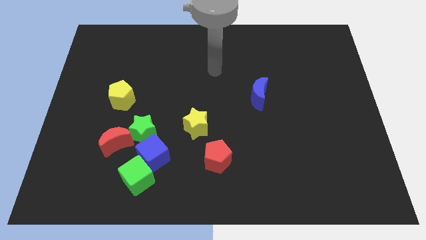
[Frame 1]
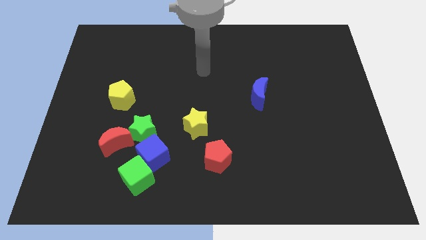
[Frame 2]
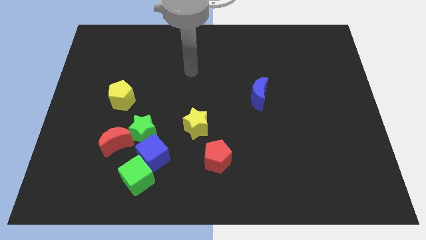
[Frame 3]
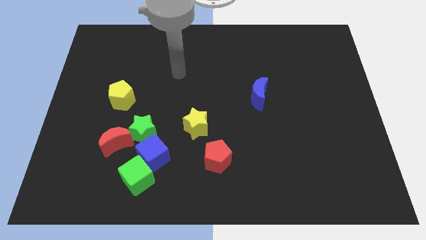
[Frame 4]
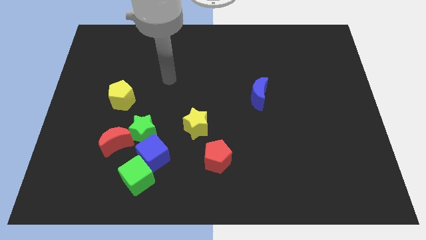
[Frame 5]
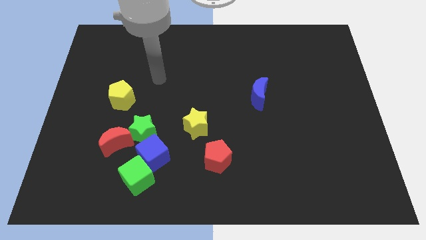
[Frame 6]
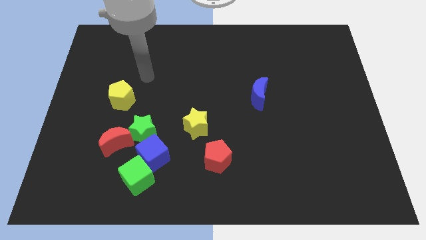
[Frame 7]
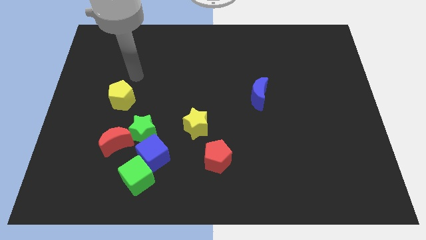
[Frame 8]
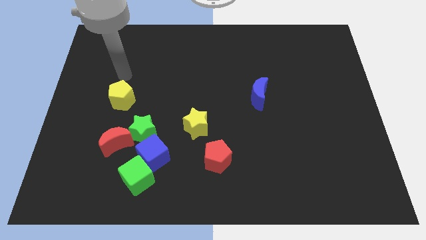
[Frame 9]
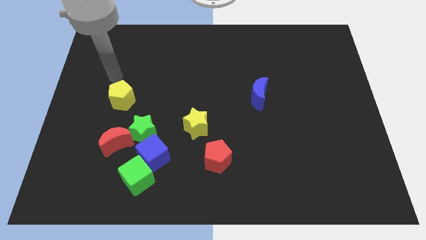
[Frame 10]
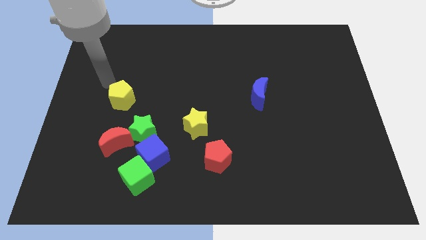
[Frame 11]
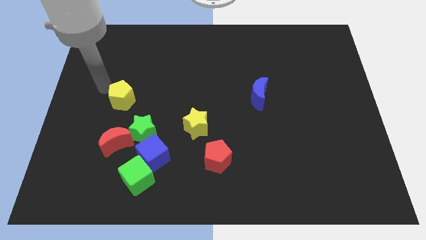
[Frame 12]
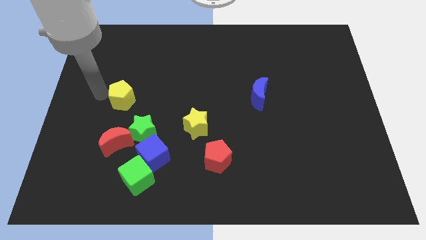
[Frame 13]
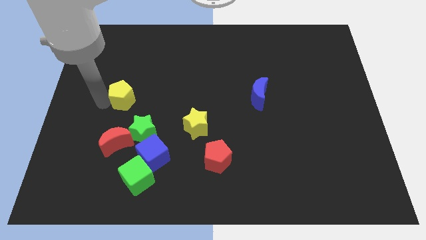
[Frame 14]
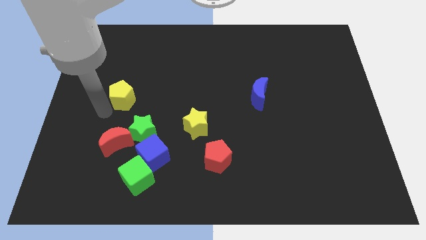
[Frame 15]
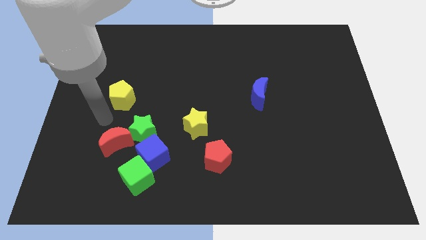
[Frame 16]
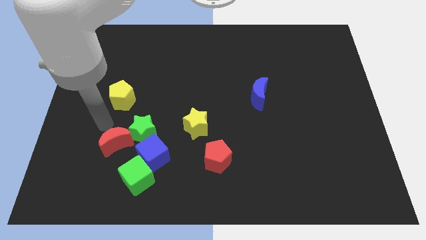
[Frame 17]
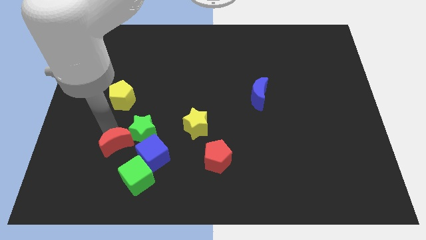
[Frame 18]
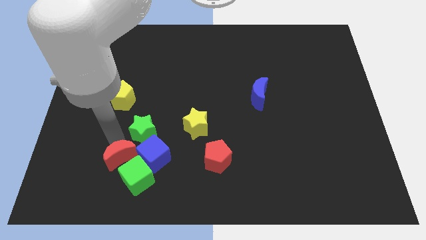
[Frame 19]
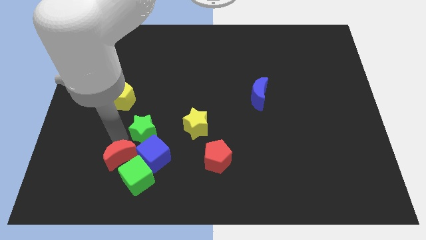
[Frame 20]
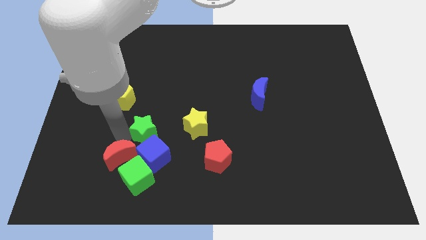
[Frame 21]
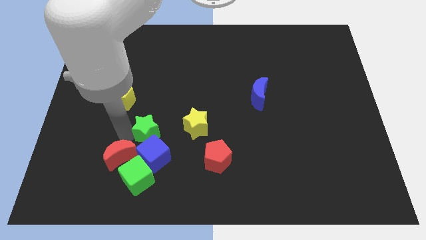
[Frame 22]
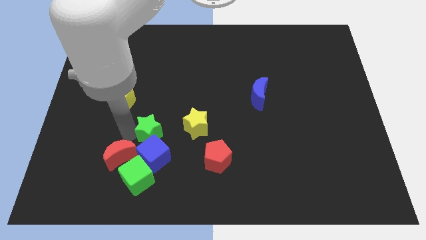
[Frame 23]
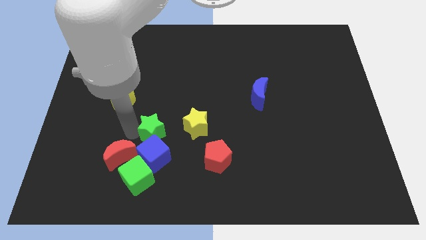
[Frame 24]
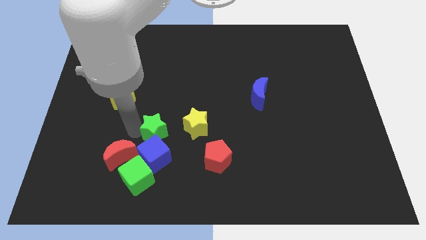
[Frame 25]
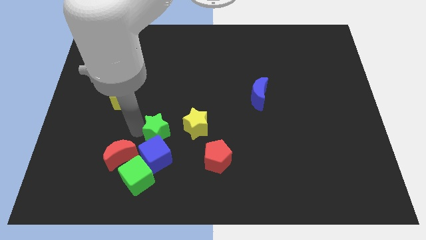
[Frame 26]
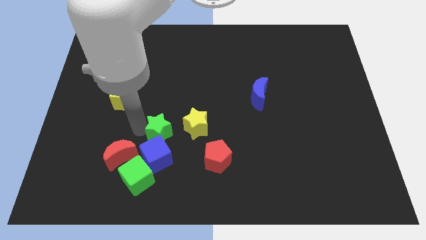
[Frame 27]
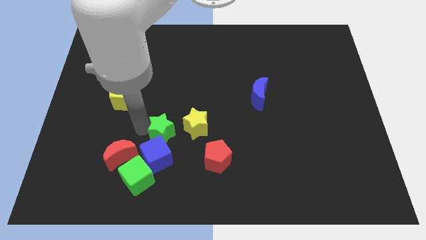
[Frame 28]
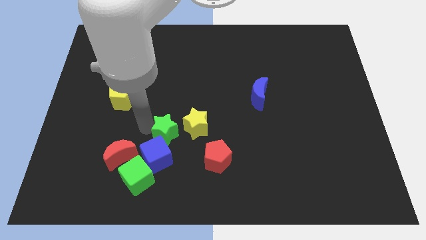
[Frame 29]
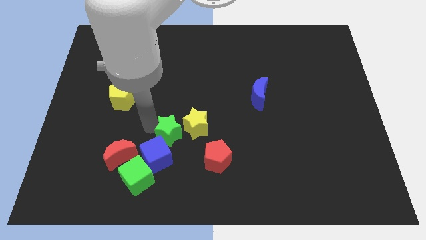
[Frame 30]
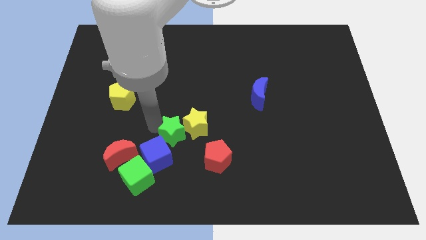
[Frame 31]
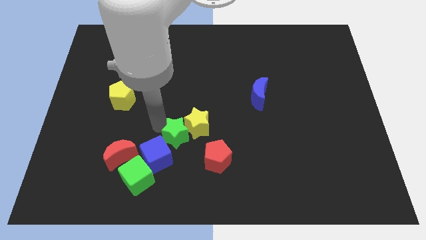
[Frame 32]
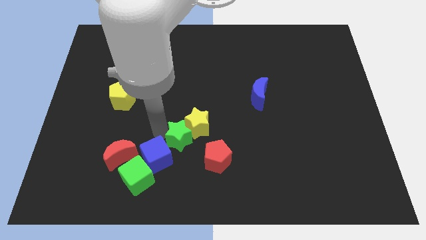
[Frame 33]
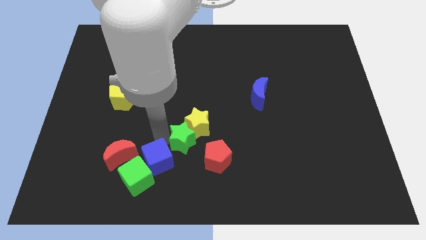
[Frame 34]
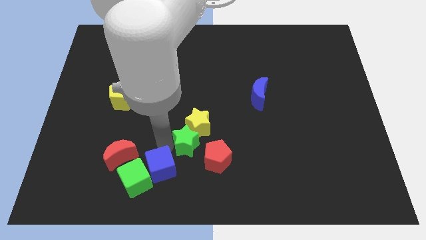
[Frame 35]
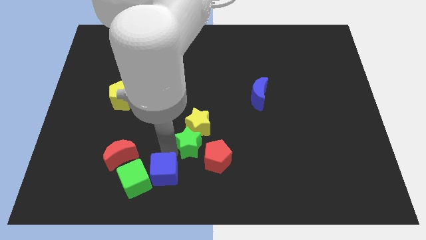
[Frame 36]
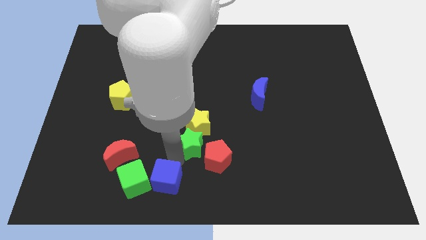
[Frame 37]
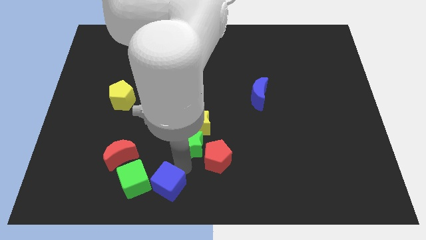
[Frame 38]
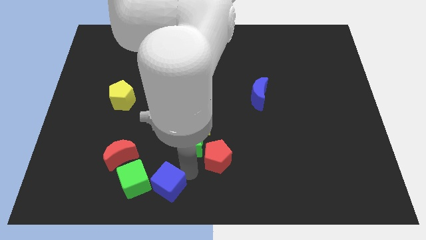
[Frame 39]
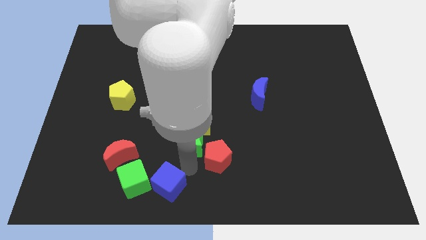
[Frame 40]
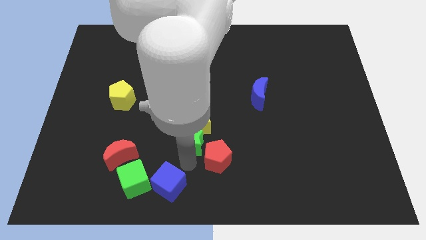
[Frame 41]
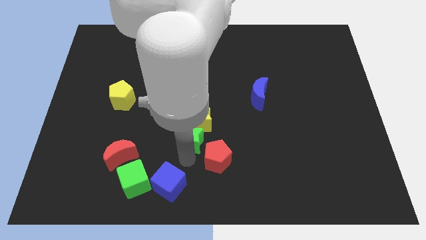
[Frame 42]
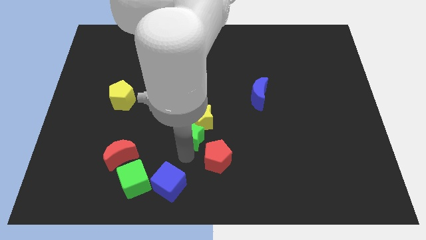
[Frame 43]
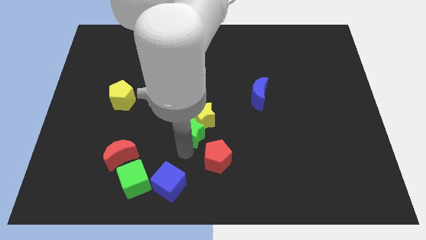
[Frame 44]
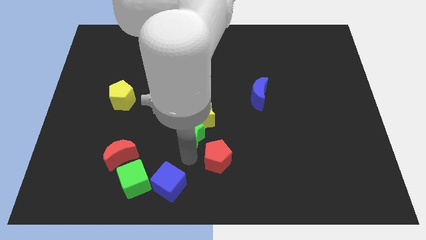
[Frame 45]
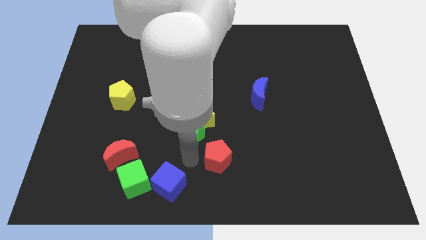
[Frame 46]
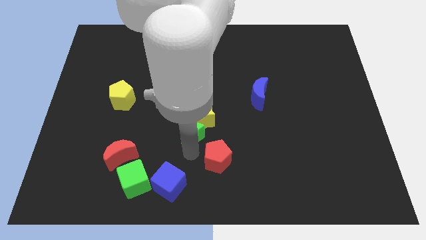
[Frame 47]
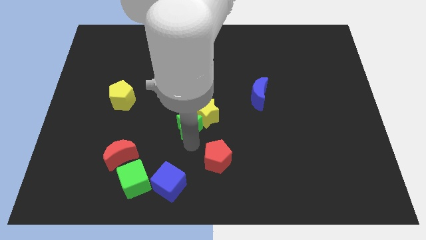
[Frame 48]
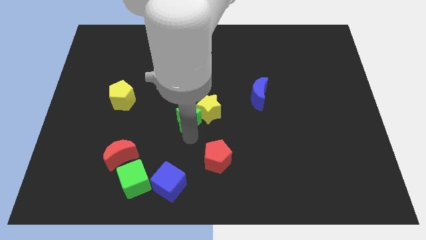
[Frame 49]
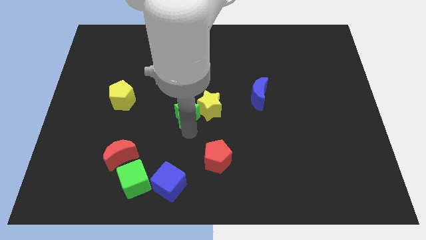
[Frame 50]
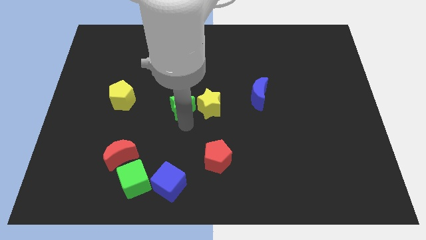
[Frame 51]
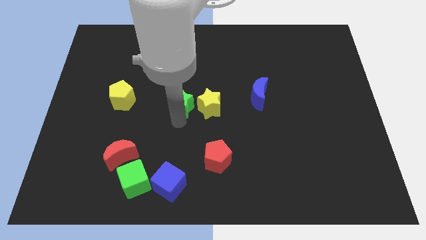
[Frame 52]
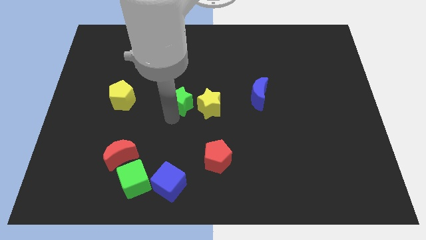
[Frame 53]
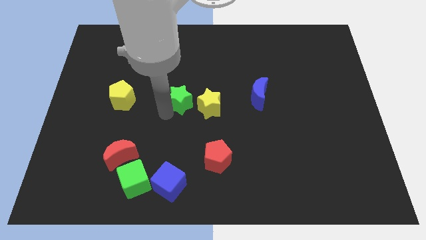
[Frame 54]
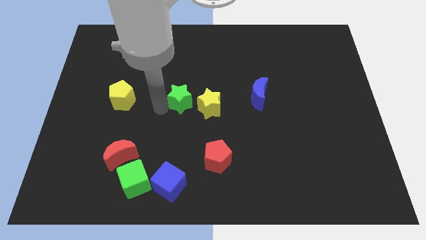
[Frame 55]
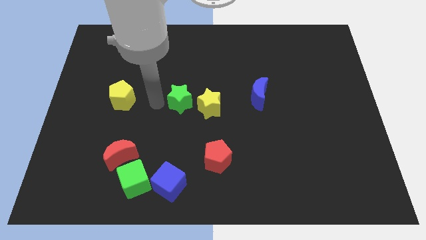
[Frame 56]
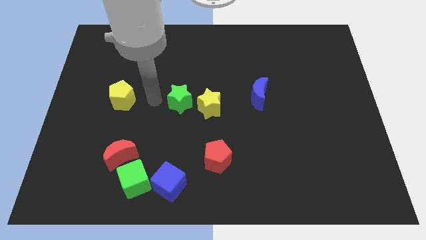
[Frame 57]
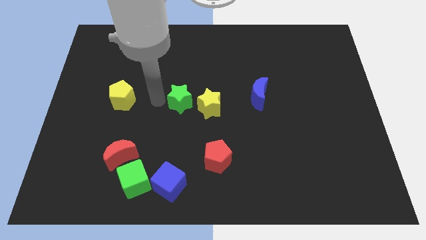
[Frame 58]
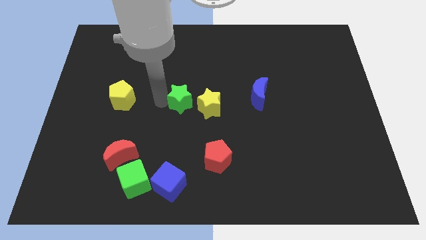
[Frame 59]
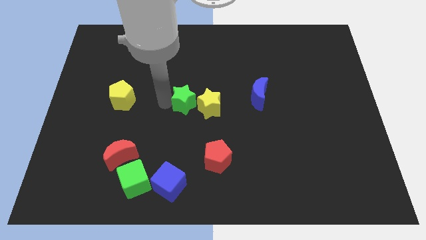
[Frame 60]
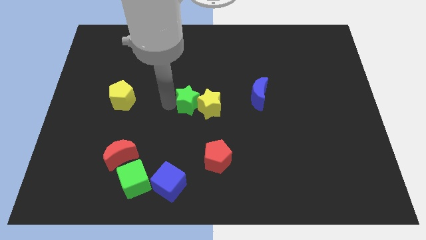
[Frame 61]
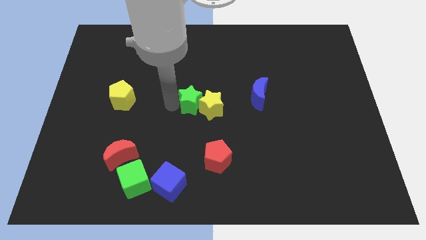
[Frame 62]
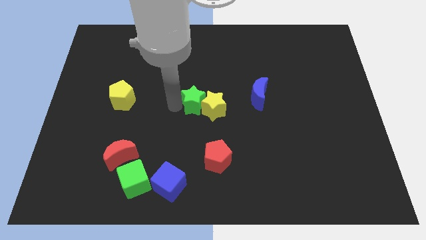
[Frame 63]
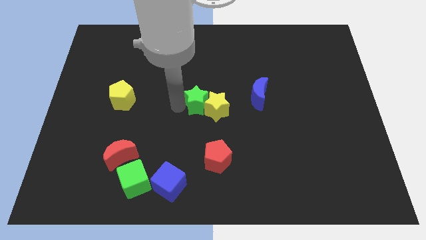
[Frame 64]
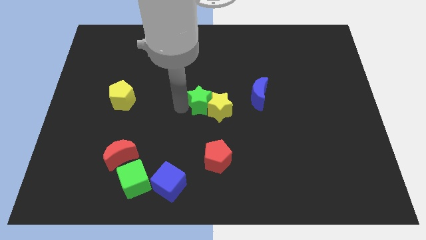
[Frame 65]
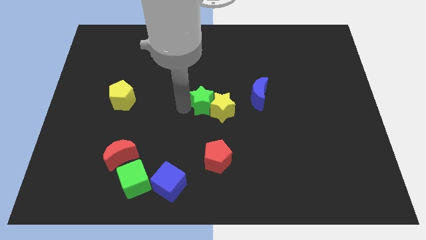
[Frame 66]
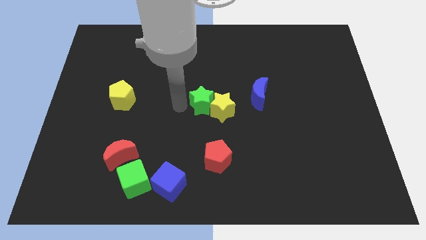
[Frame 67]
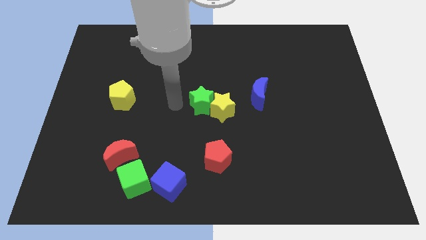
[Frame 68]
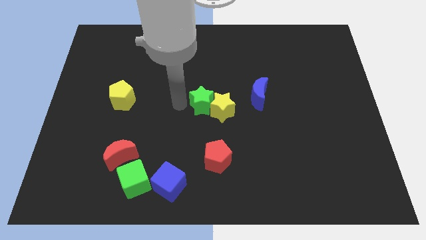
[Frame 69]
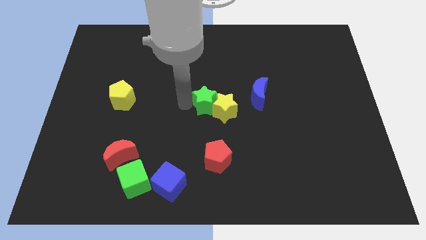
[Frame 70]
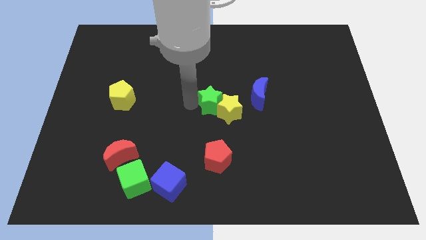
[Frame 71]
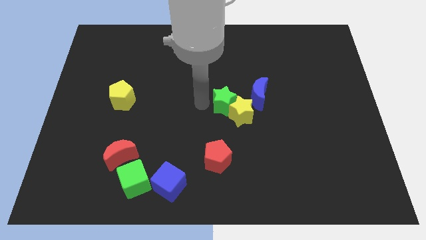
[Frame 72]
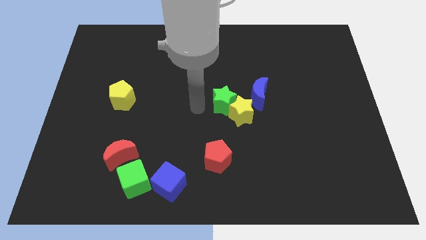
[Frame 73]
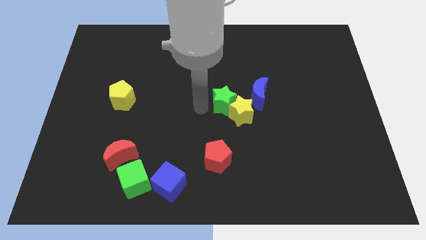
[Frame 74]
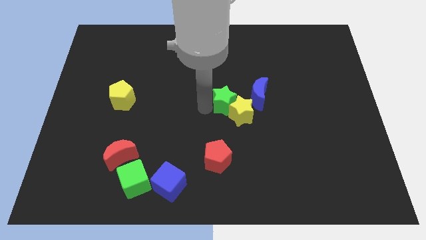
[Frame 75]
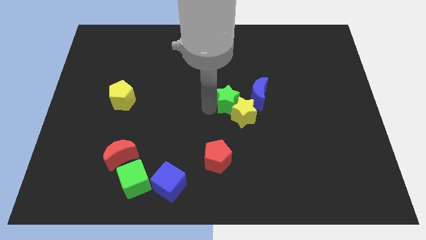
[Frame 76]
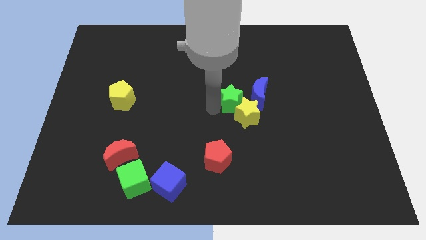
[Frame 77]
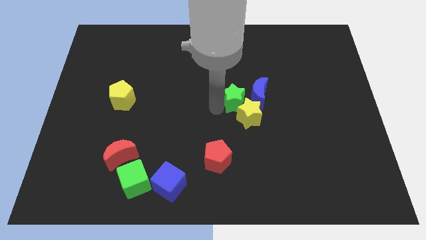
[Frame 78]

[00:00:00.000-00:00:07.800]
push the green star close to the blue moon

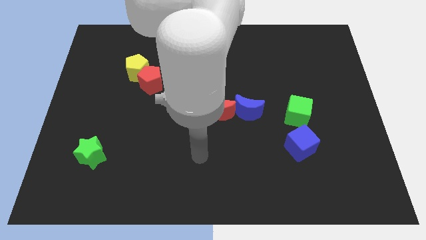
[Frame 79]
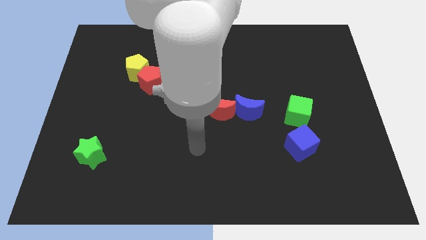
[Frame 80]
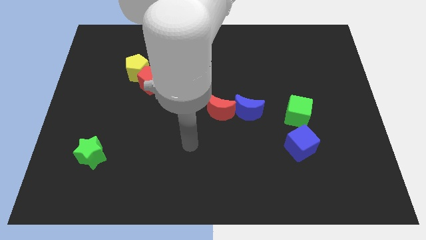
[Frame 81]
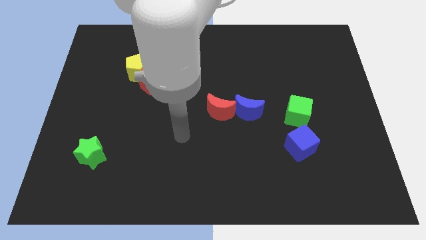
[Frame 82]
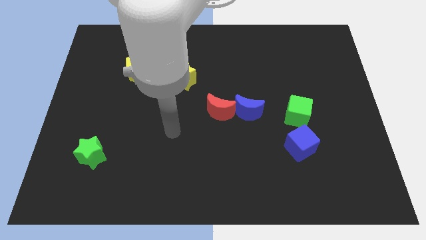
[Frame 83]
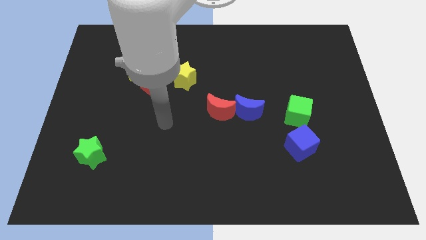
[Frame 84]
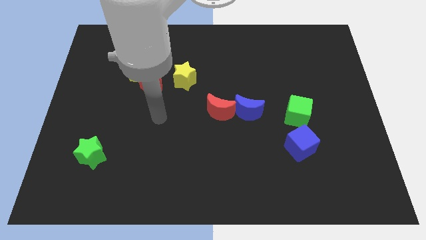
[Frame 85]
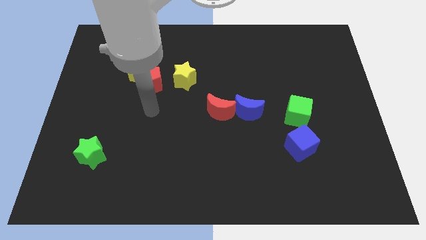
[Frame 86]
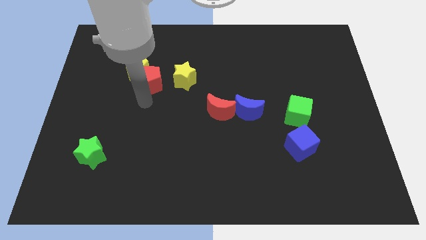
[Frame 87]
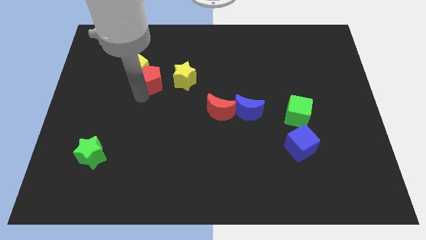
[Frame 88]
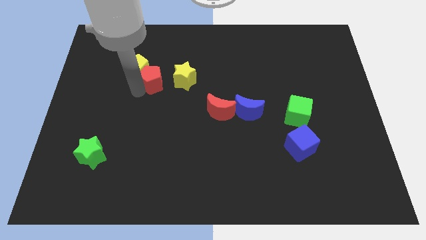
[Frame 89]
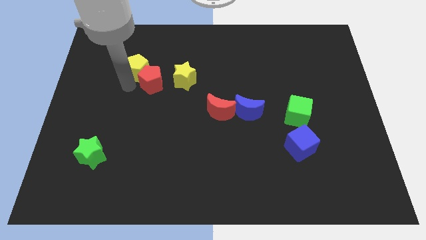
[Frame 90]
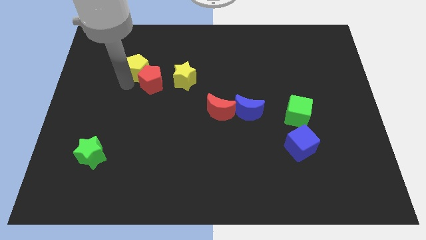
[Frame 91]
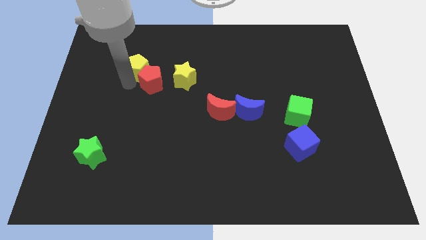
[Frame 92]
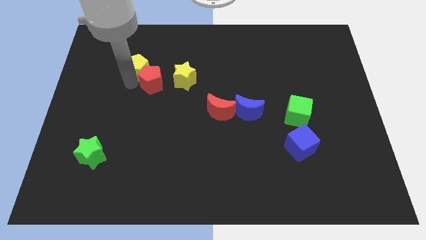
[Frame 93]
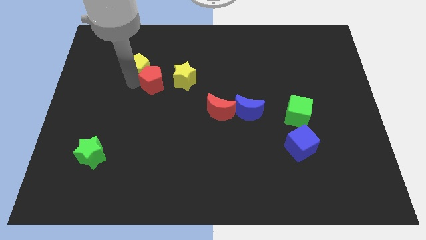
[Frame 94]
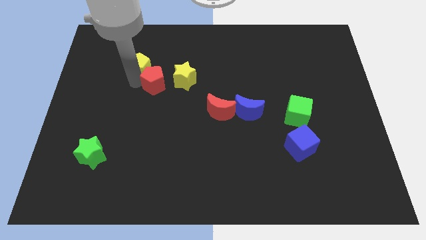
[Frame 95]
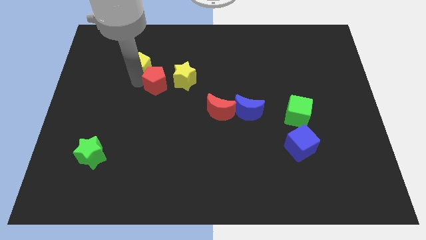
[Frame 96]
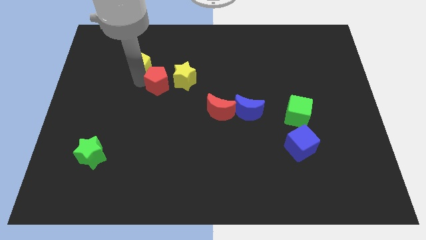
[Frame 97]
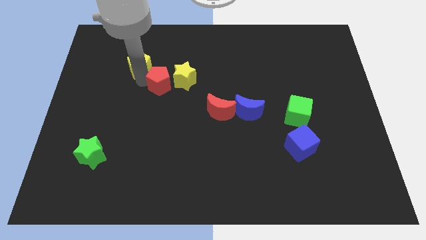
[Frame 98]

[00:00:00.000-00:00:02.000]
push the red pentagon next to the yellow star
